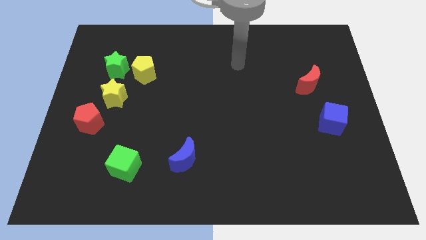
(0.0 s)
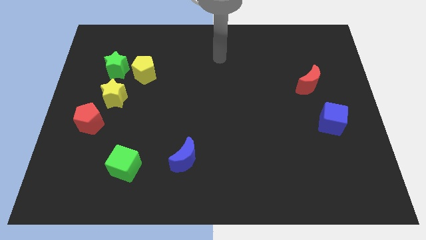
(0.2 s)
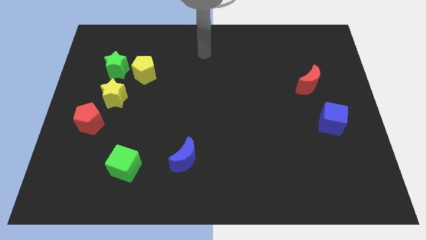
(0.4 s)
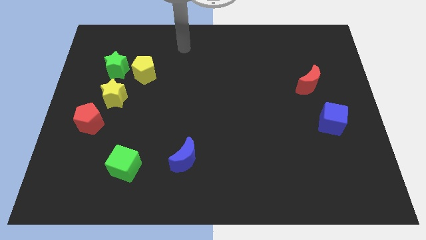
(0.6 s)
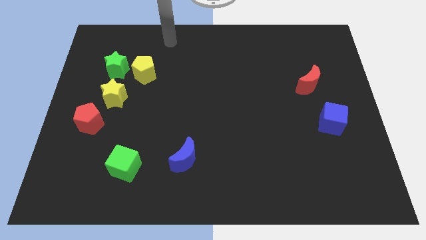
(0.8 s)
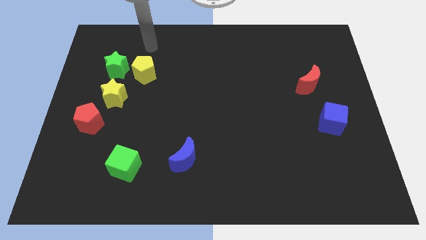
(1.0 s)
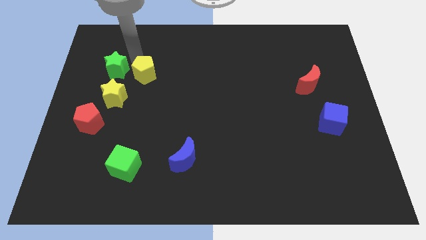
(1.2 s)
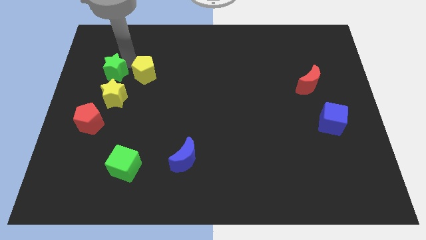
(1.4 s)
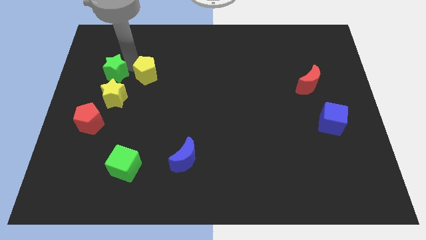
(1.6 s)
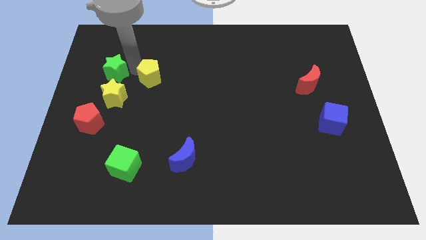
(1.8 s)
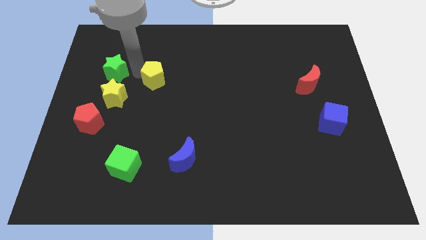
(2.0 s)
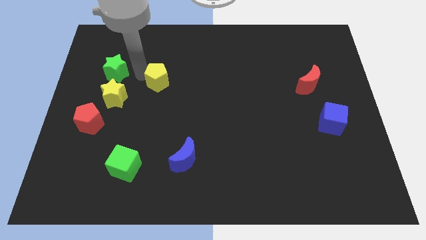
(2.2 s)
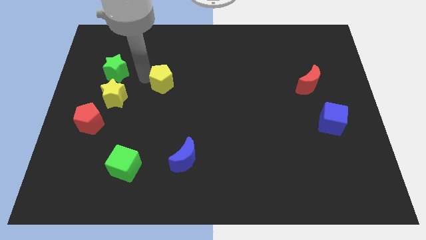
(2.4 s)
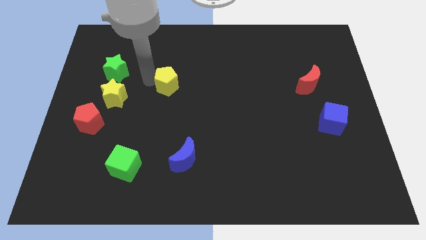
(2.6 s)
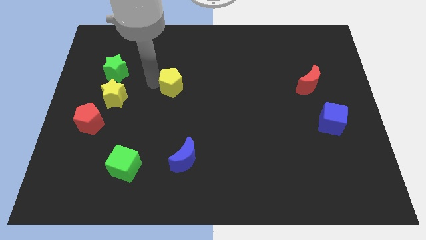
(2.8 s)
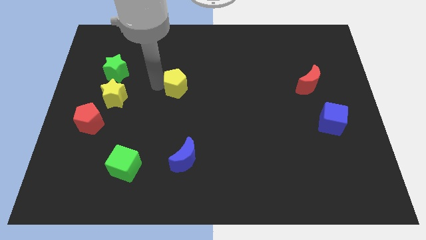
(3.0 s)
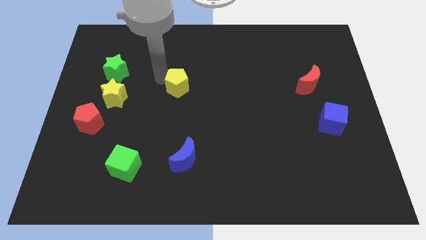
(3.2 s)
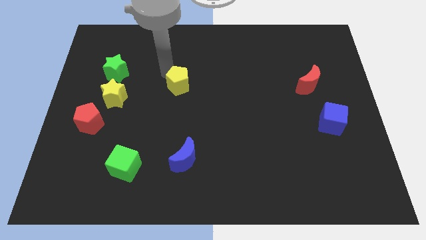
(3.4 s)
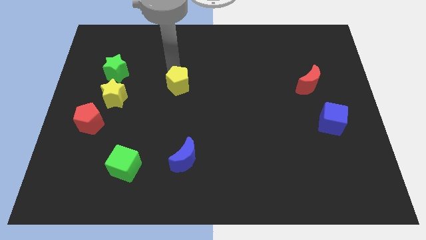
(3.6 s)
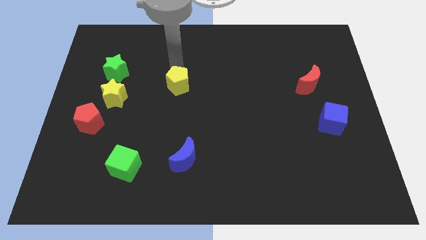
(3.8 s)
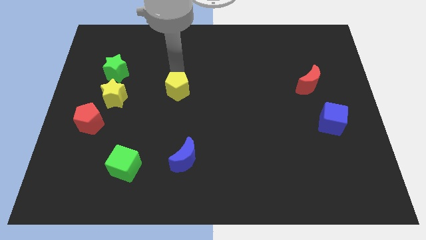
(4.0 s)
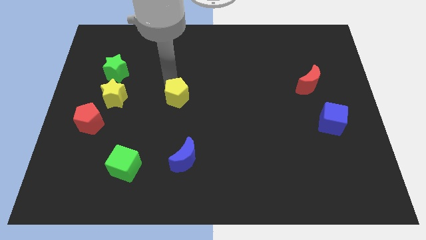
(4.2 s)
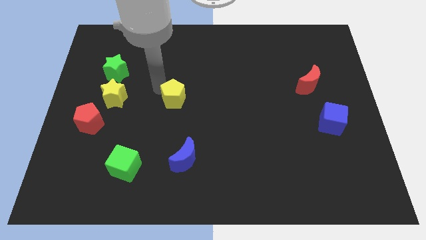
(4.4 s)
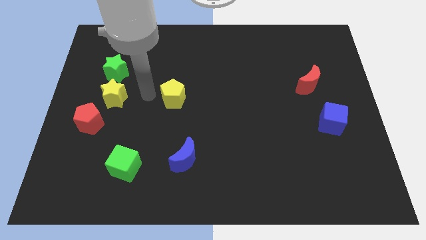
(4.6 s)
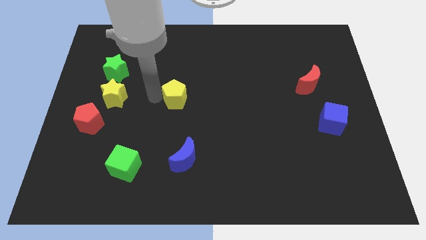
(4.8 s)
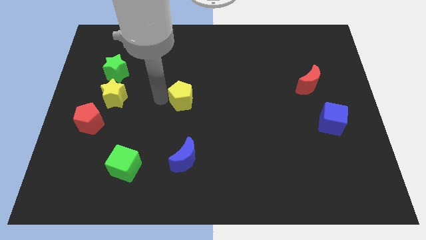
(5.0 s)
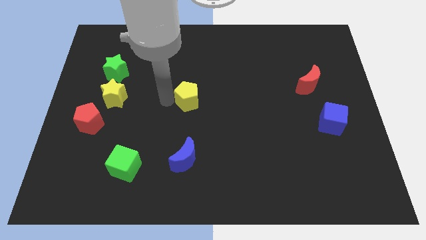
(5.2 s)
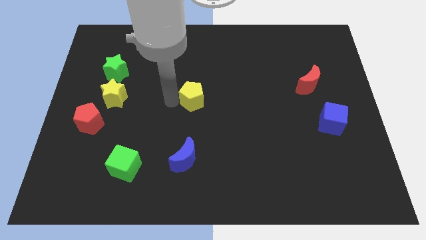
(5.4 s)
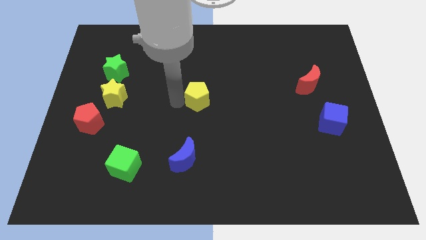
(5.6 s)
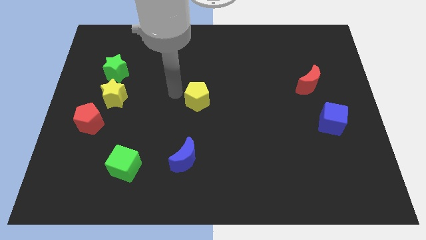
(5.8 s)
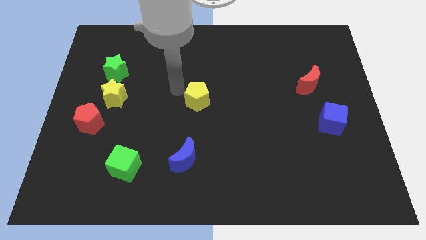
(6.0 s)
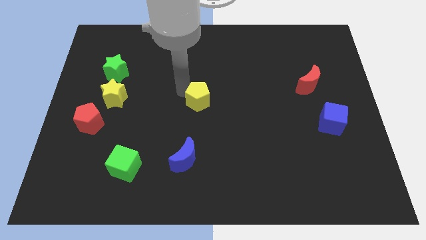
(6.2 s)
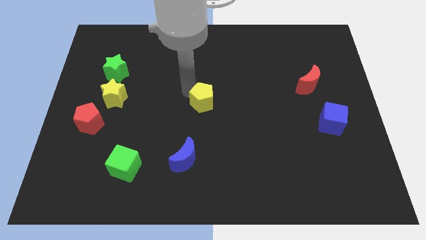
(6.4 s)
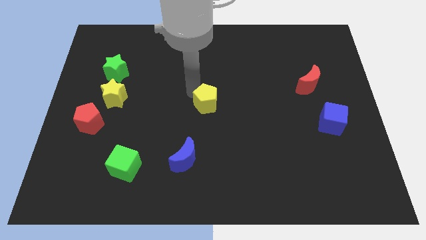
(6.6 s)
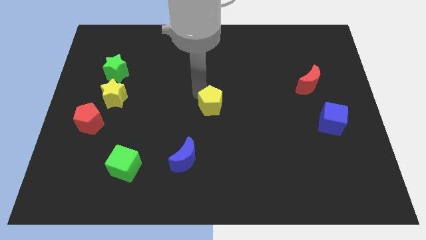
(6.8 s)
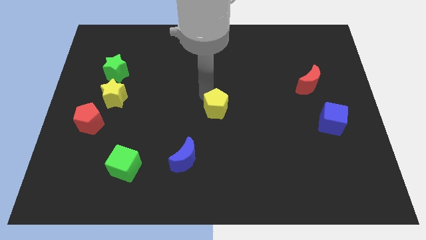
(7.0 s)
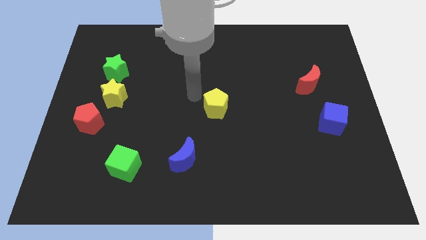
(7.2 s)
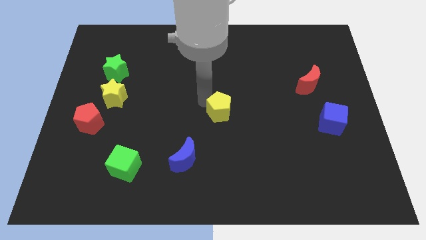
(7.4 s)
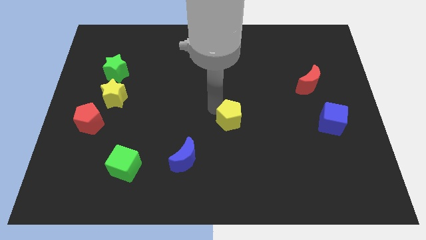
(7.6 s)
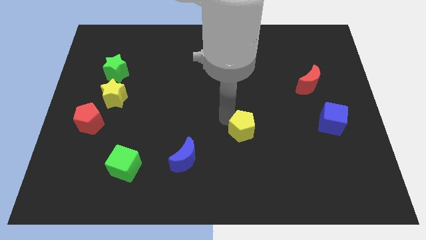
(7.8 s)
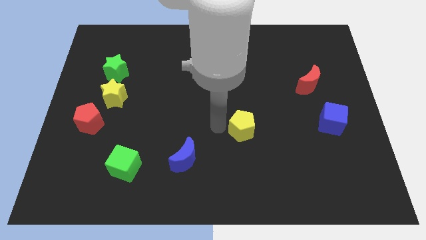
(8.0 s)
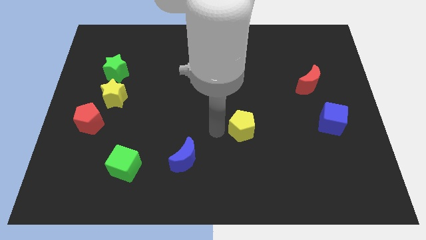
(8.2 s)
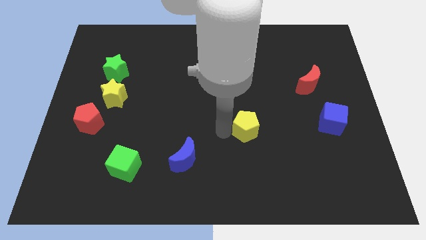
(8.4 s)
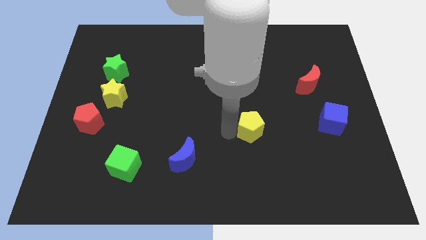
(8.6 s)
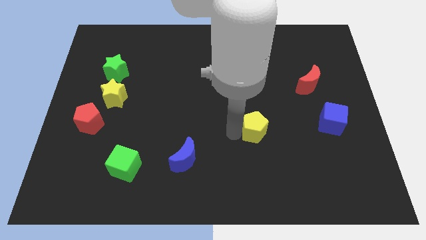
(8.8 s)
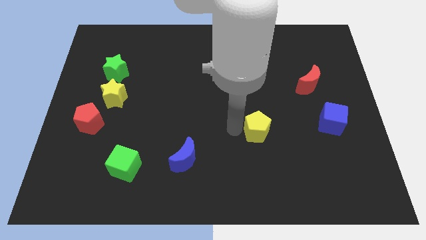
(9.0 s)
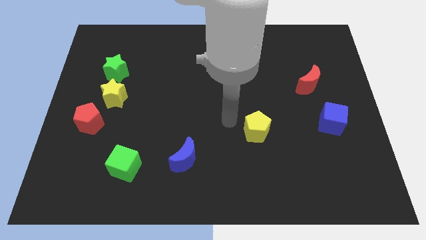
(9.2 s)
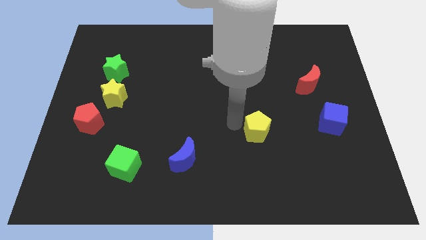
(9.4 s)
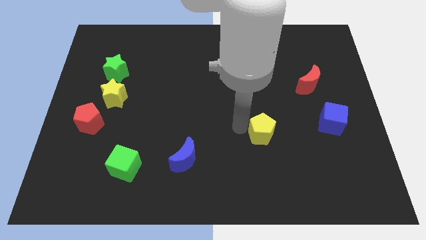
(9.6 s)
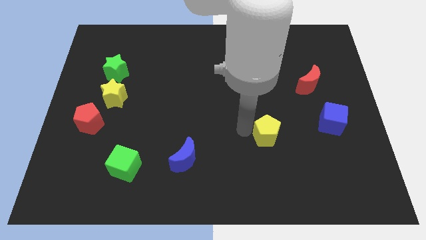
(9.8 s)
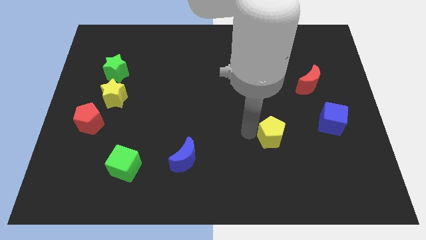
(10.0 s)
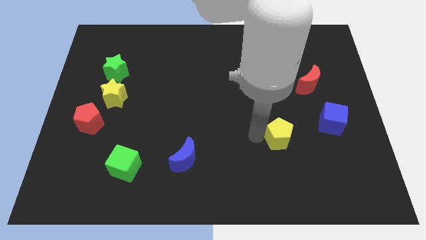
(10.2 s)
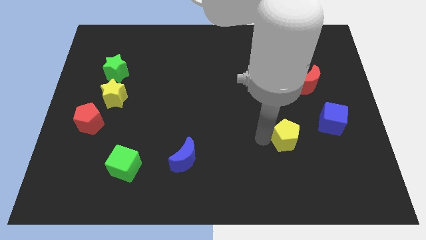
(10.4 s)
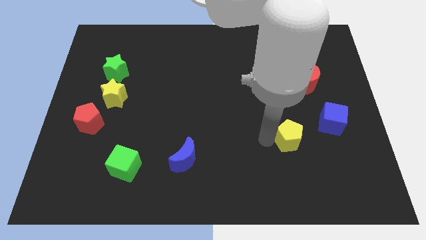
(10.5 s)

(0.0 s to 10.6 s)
slide the yellow pentagon to the bottom left side of the blue cube

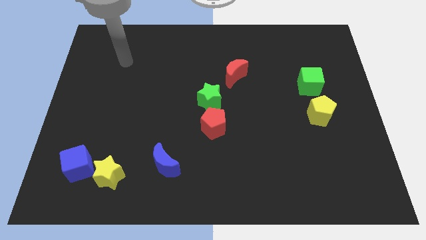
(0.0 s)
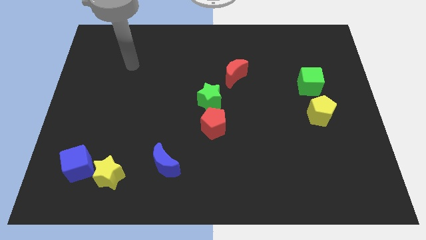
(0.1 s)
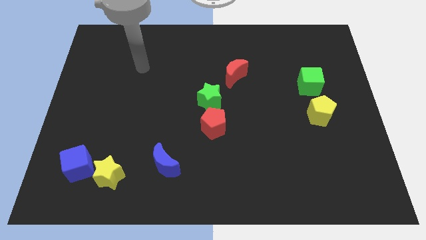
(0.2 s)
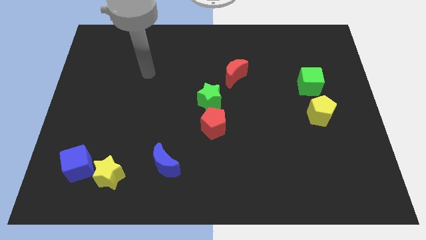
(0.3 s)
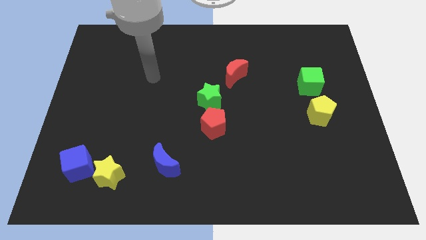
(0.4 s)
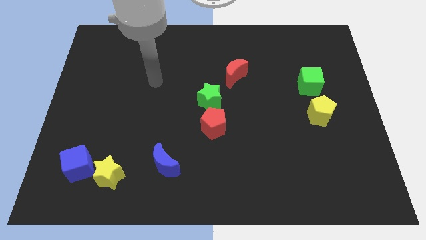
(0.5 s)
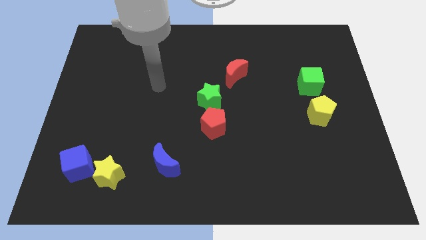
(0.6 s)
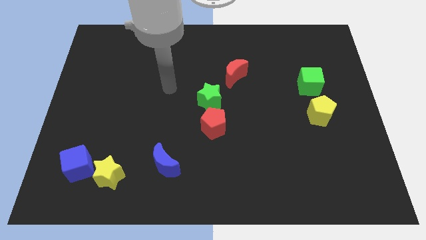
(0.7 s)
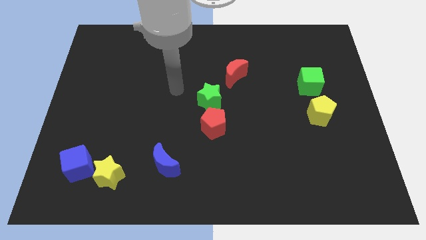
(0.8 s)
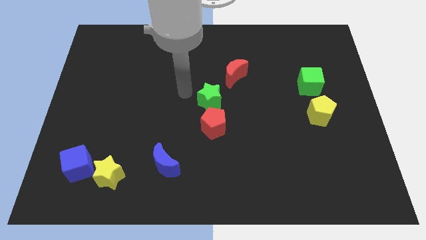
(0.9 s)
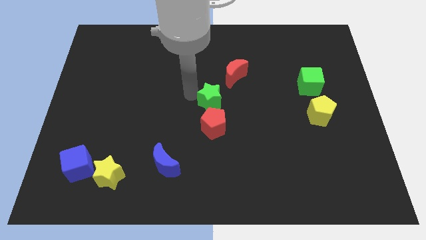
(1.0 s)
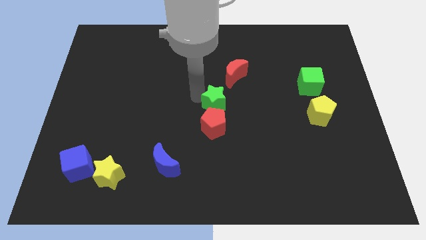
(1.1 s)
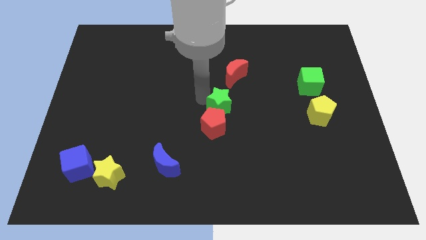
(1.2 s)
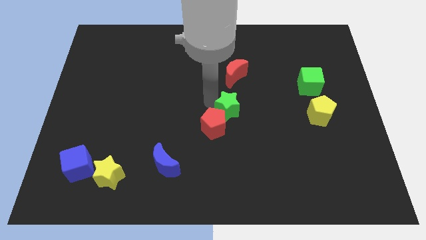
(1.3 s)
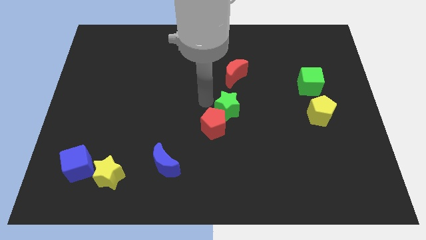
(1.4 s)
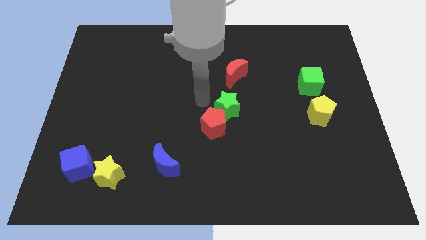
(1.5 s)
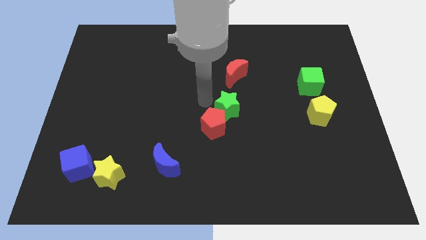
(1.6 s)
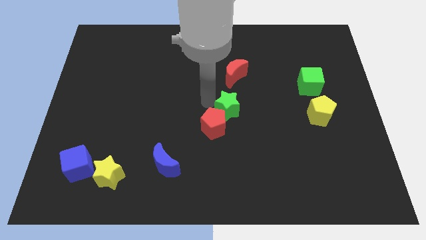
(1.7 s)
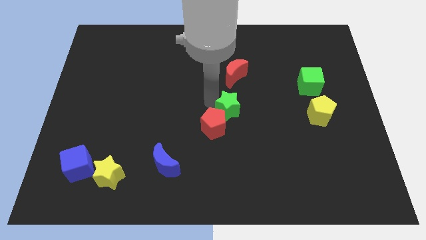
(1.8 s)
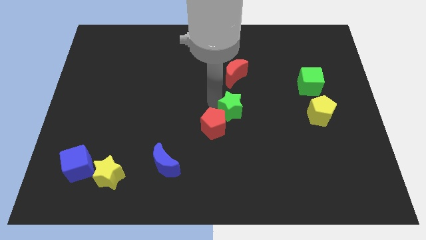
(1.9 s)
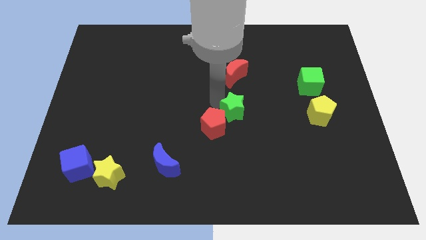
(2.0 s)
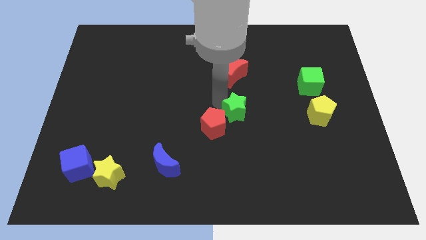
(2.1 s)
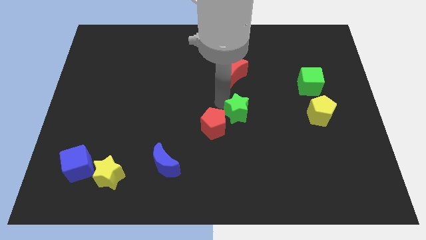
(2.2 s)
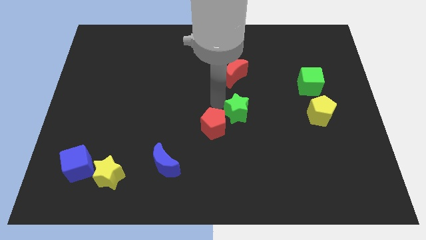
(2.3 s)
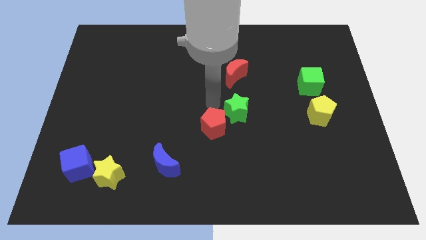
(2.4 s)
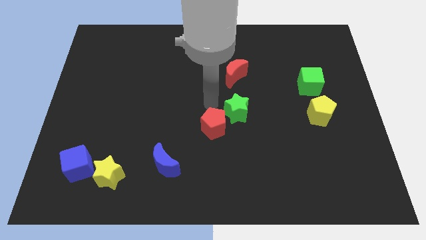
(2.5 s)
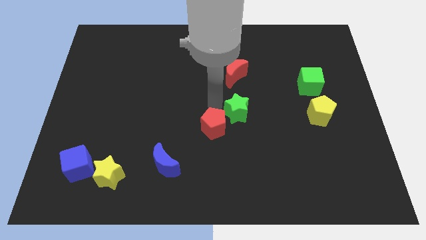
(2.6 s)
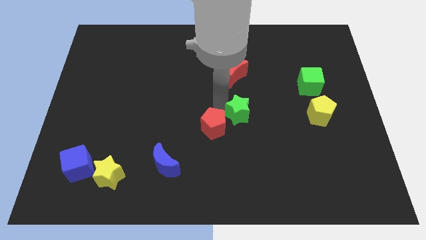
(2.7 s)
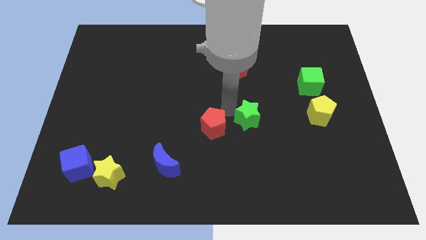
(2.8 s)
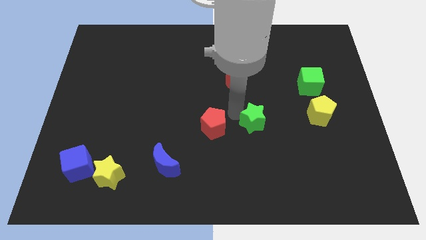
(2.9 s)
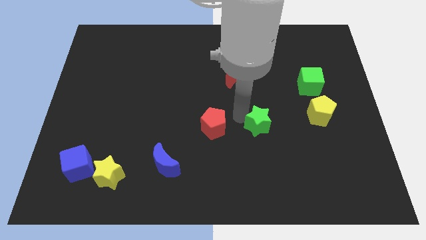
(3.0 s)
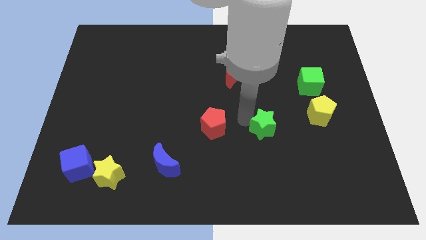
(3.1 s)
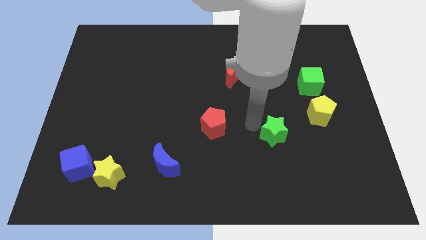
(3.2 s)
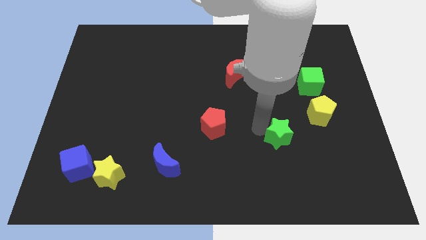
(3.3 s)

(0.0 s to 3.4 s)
slide the green star to the bottom left side of the yellow pentagon
